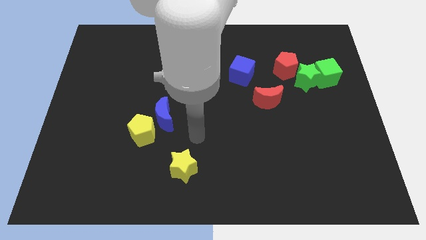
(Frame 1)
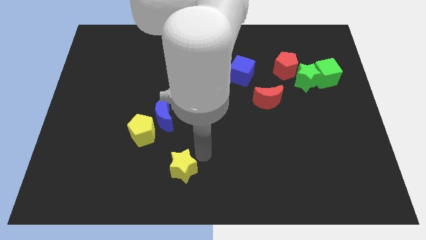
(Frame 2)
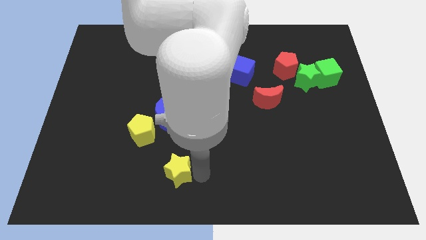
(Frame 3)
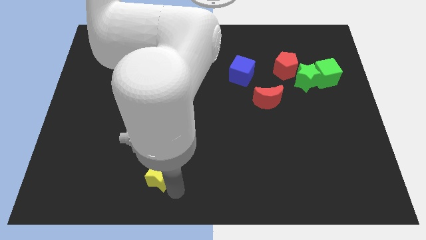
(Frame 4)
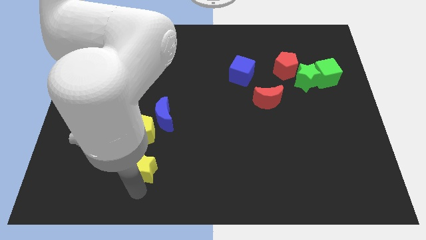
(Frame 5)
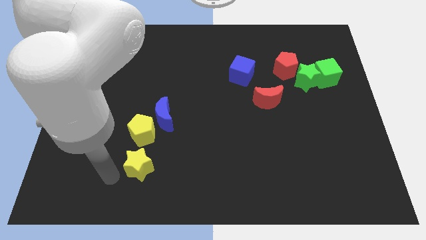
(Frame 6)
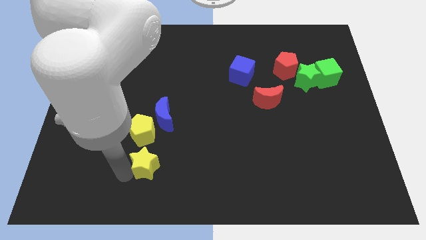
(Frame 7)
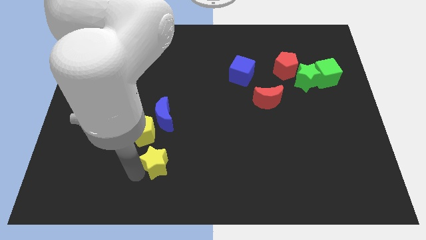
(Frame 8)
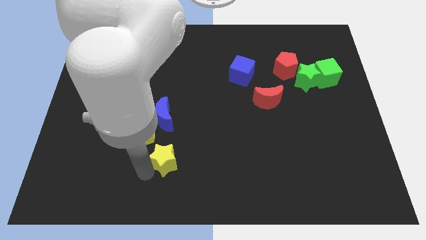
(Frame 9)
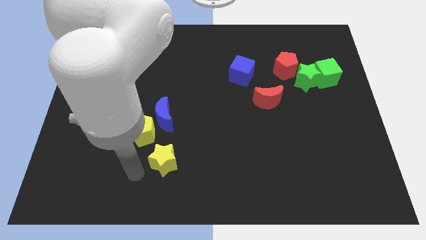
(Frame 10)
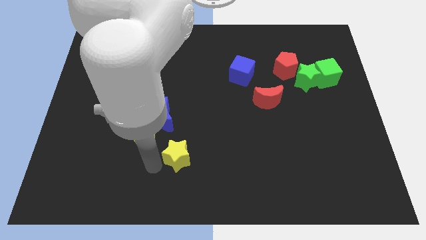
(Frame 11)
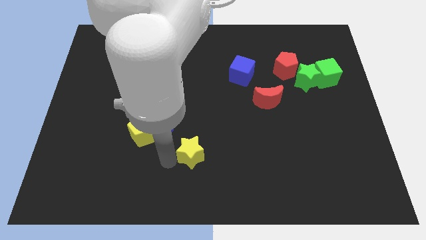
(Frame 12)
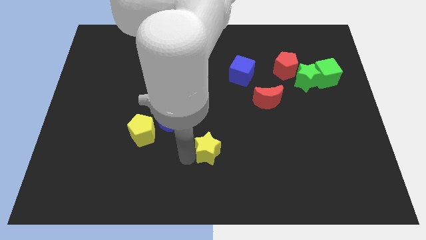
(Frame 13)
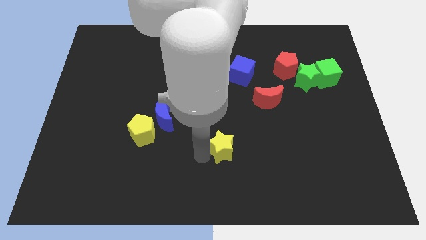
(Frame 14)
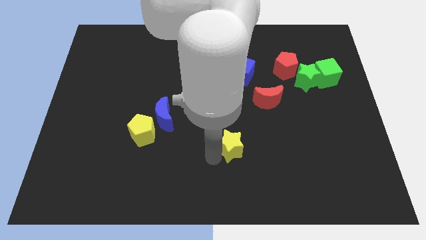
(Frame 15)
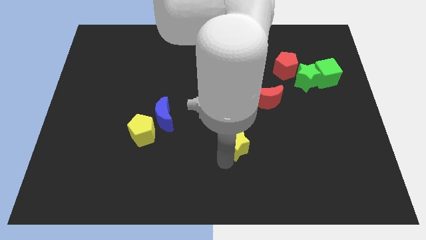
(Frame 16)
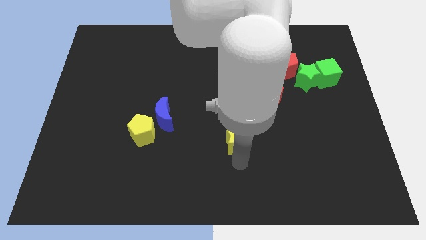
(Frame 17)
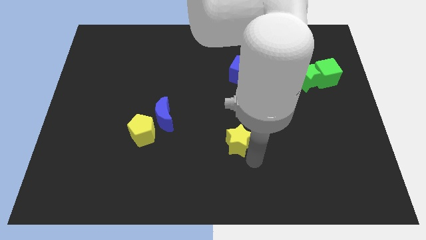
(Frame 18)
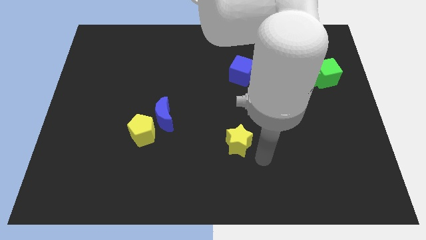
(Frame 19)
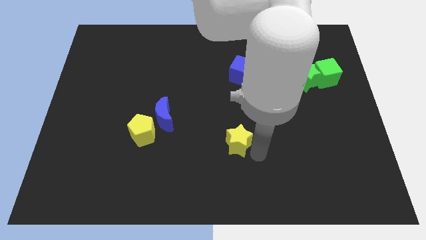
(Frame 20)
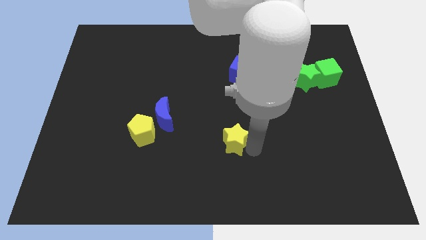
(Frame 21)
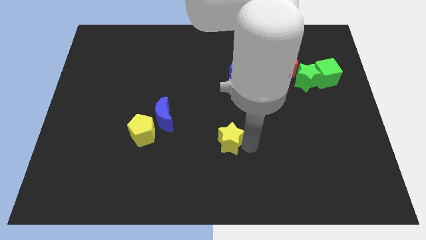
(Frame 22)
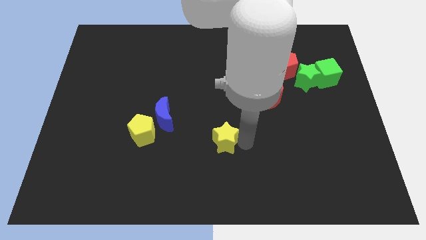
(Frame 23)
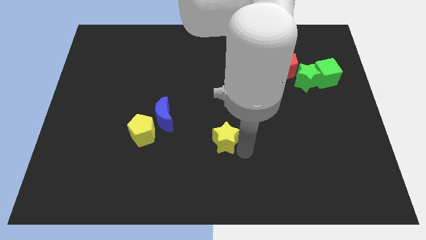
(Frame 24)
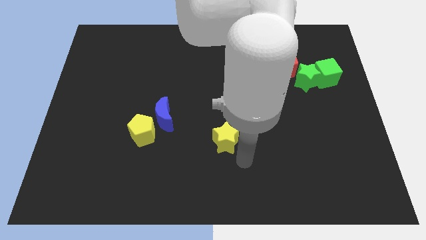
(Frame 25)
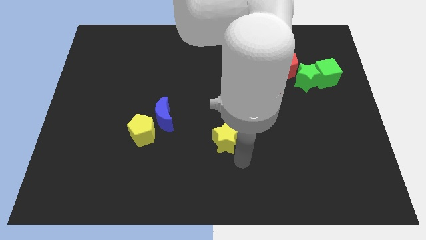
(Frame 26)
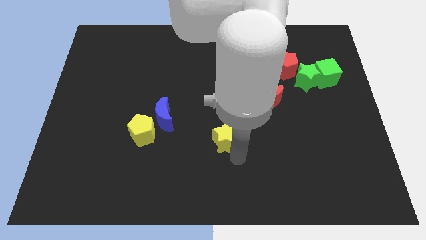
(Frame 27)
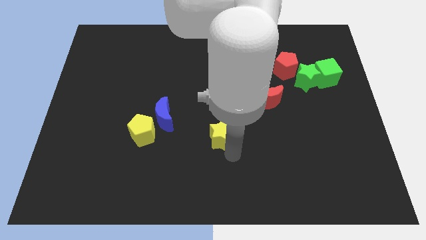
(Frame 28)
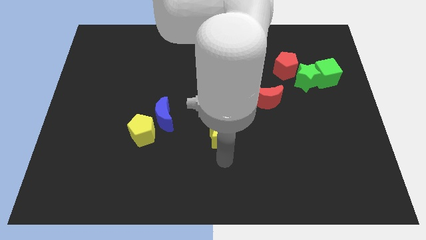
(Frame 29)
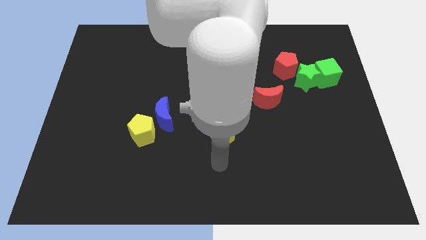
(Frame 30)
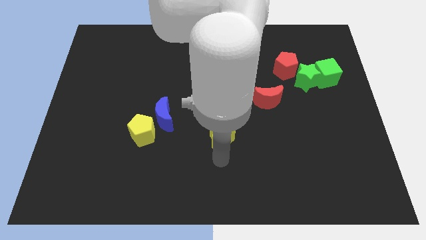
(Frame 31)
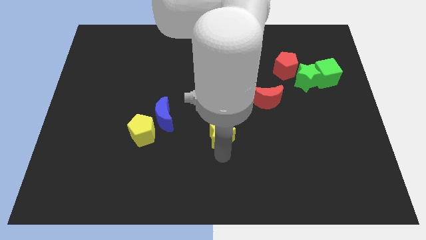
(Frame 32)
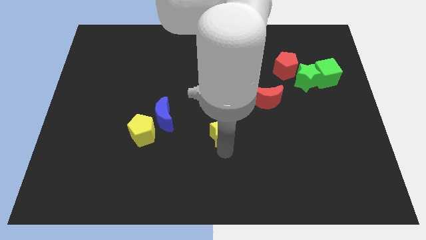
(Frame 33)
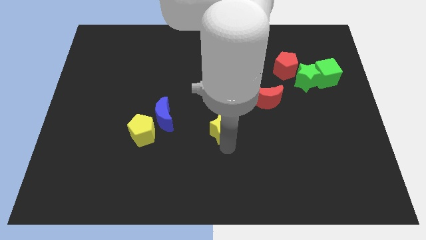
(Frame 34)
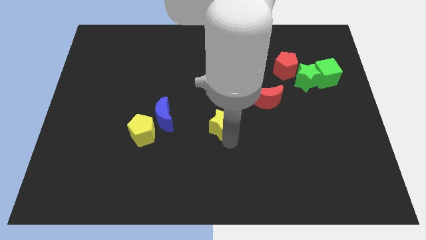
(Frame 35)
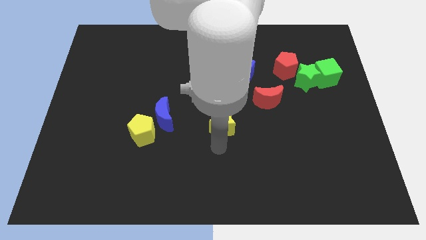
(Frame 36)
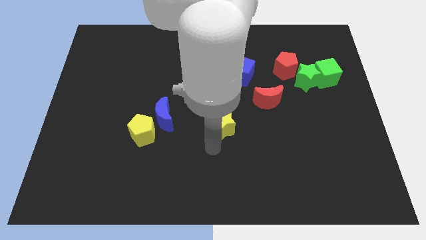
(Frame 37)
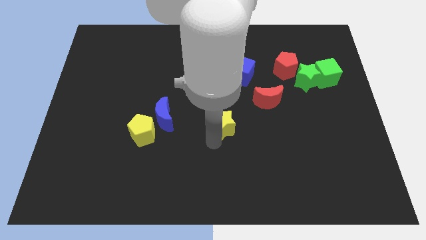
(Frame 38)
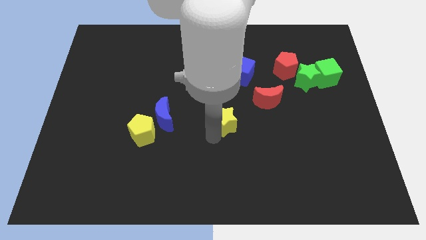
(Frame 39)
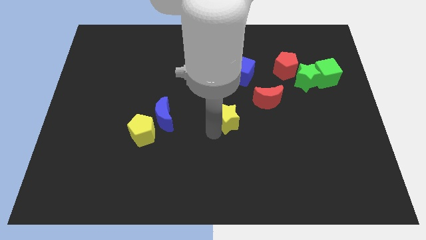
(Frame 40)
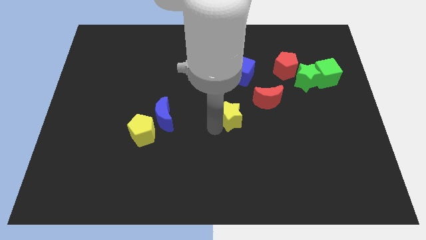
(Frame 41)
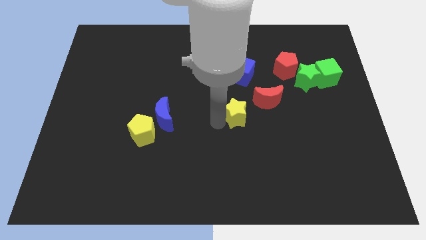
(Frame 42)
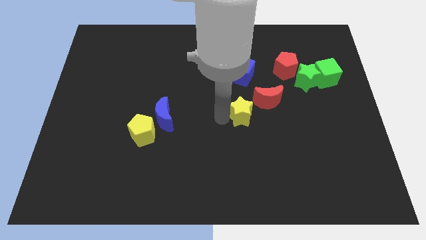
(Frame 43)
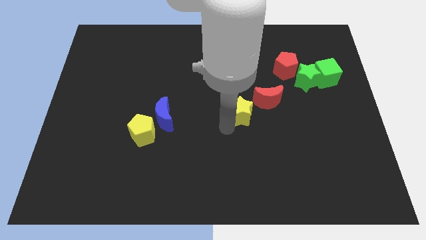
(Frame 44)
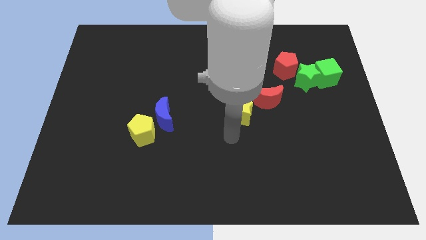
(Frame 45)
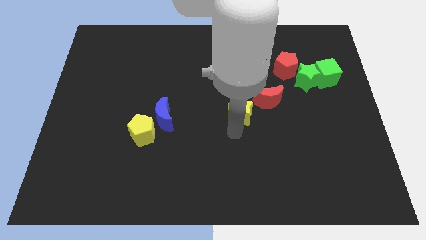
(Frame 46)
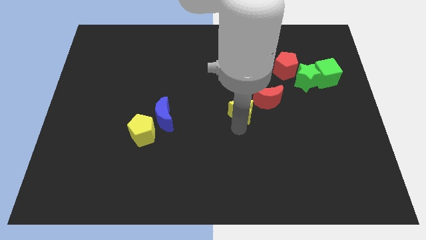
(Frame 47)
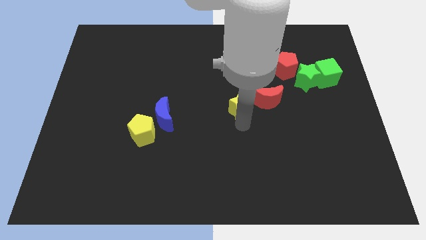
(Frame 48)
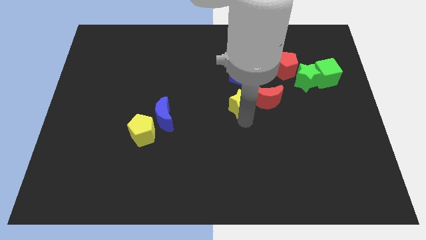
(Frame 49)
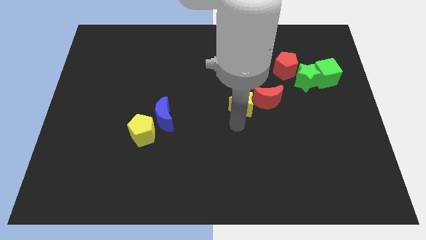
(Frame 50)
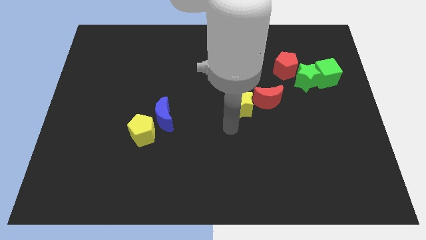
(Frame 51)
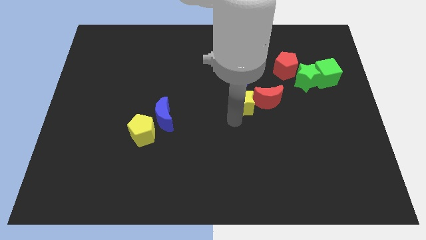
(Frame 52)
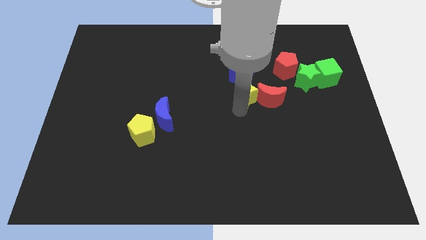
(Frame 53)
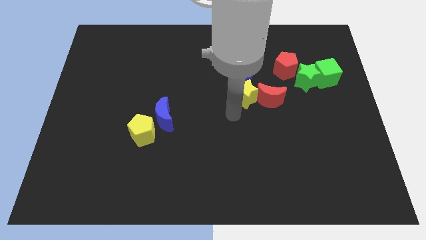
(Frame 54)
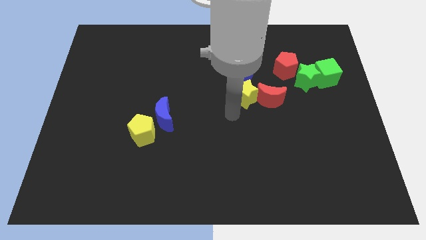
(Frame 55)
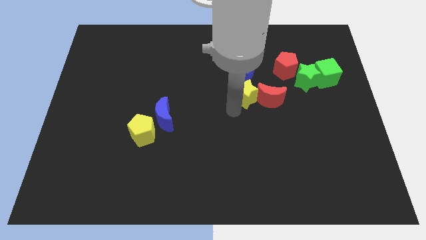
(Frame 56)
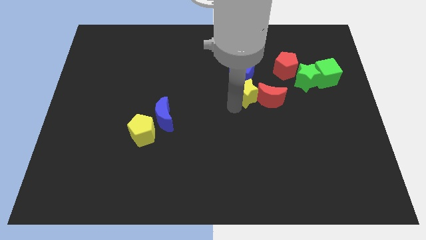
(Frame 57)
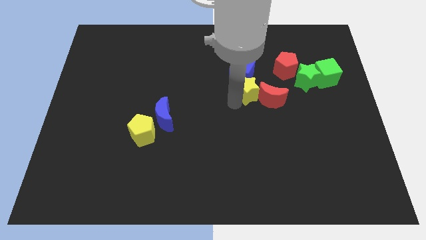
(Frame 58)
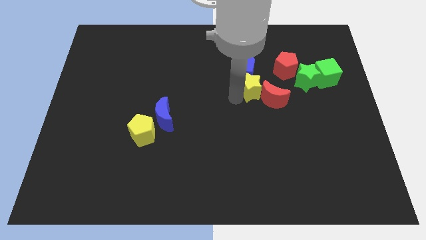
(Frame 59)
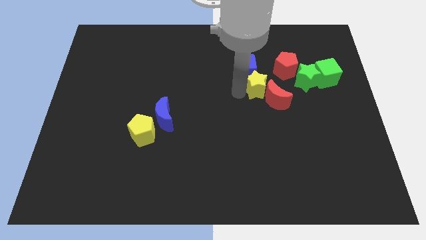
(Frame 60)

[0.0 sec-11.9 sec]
push the yellow star to the top of the red moon
